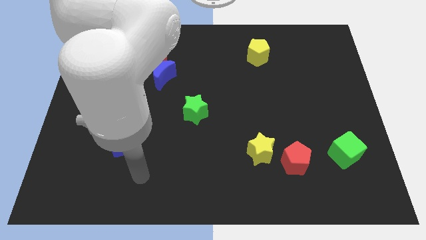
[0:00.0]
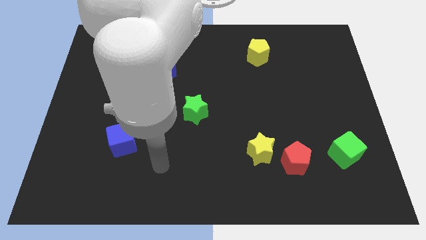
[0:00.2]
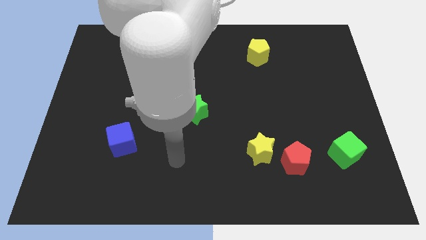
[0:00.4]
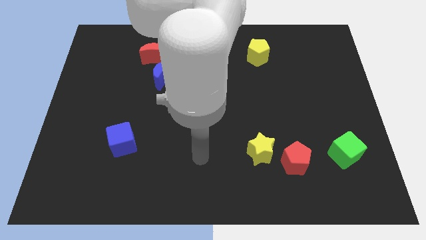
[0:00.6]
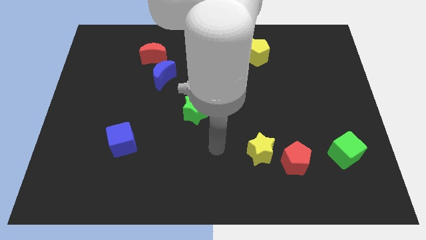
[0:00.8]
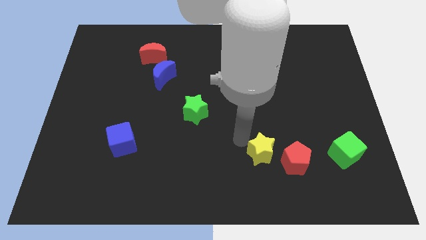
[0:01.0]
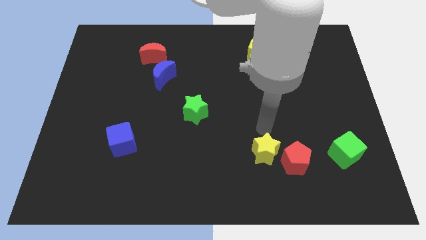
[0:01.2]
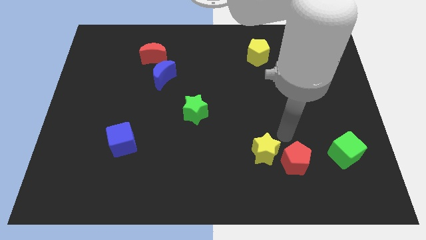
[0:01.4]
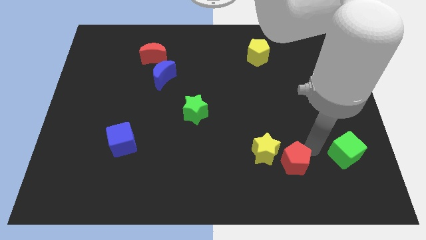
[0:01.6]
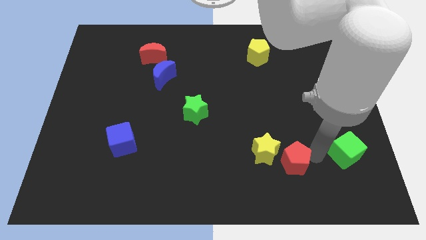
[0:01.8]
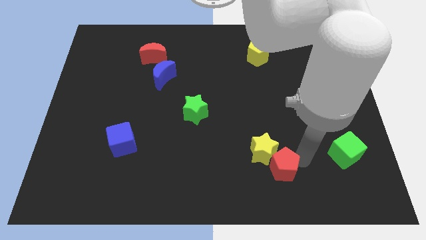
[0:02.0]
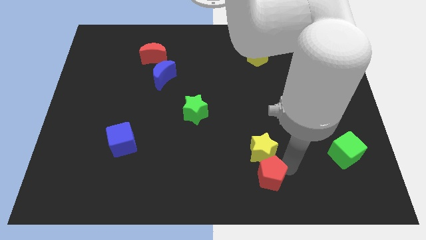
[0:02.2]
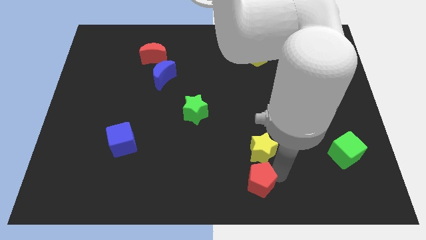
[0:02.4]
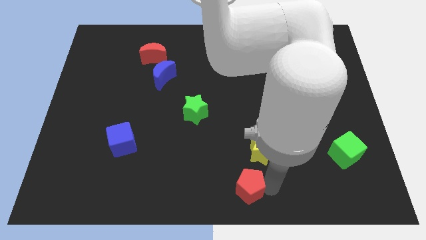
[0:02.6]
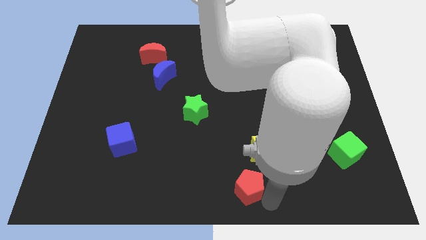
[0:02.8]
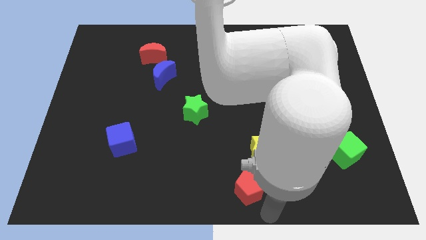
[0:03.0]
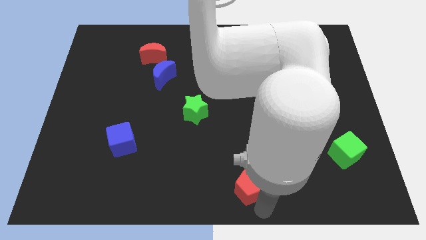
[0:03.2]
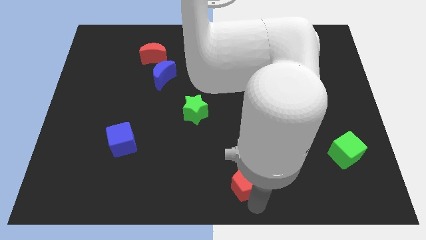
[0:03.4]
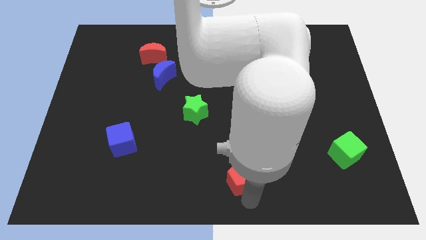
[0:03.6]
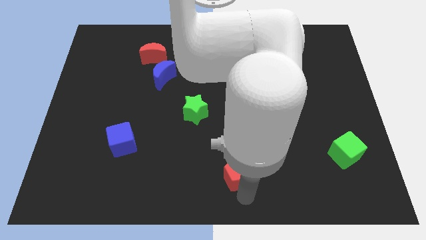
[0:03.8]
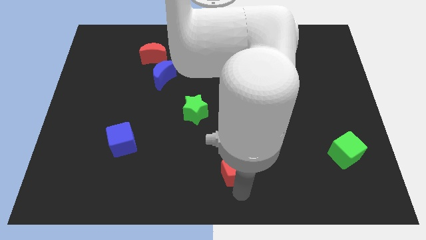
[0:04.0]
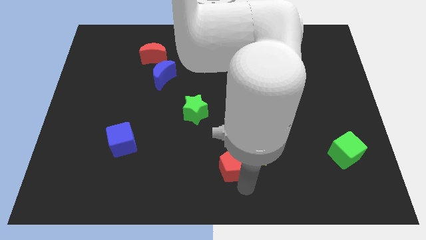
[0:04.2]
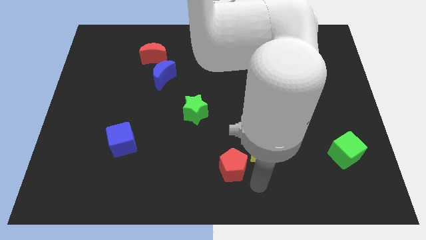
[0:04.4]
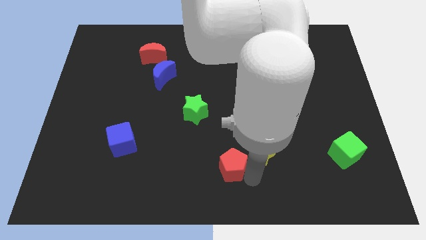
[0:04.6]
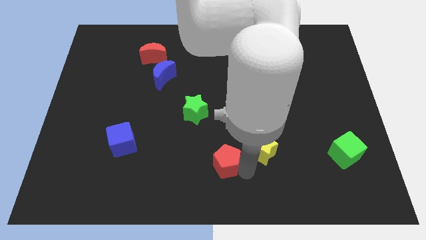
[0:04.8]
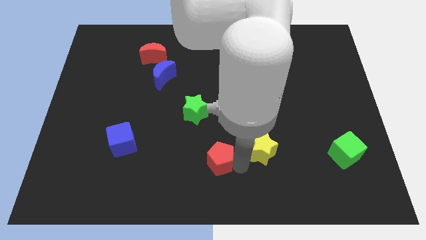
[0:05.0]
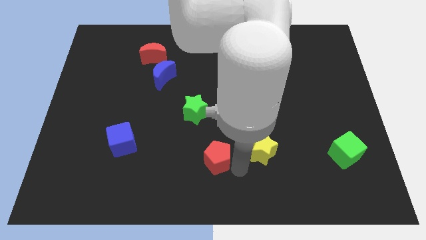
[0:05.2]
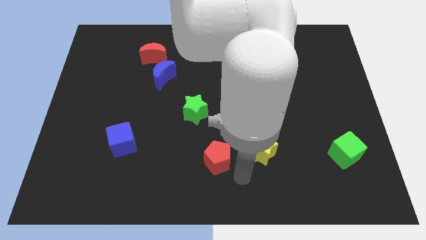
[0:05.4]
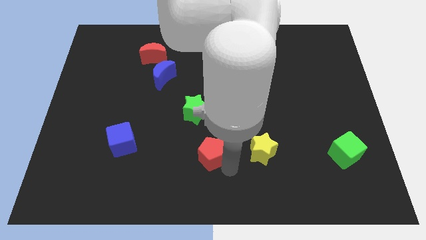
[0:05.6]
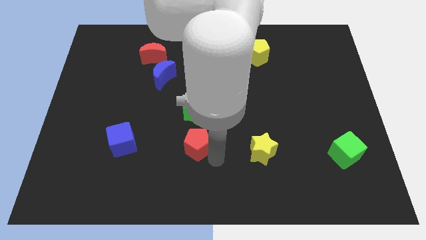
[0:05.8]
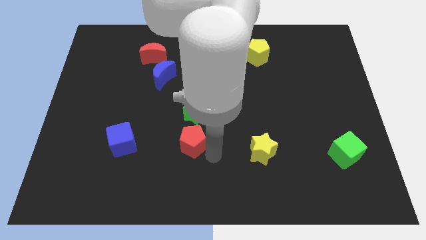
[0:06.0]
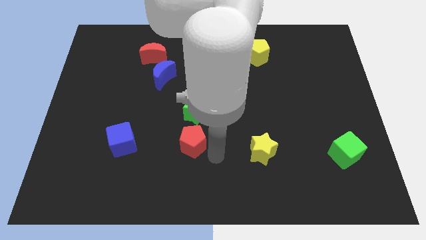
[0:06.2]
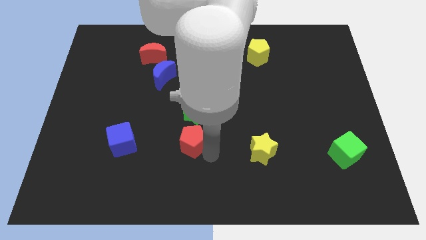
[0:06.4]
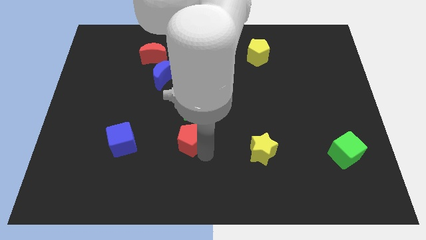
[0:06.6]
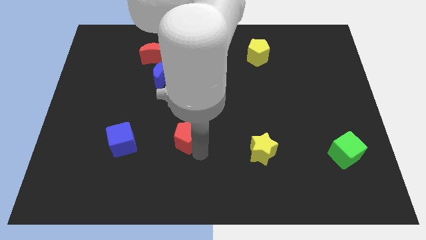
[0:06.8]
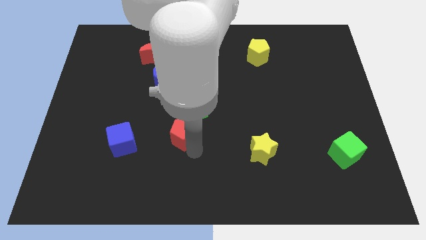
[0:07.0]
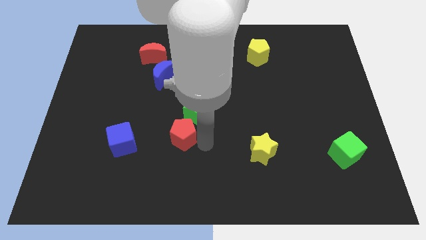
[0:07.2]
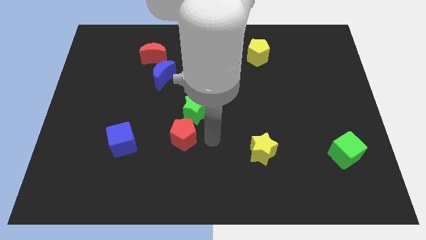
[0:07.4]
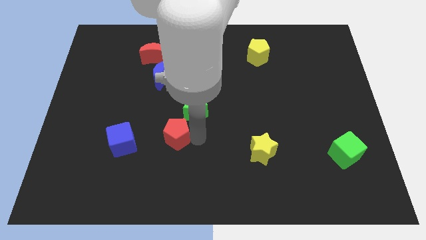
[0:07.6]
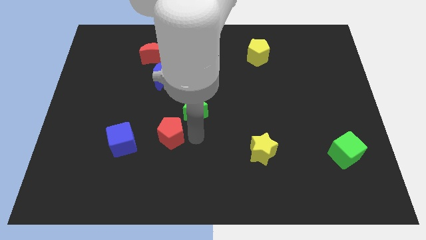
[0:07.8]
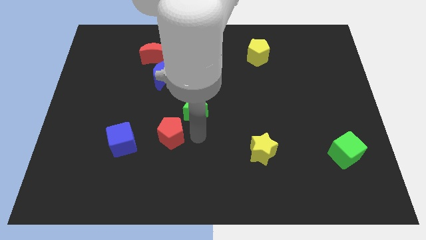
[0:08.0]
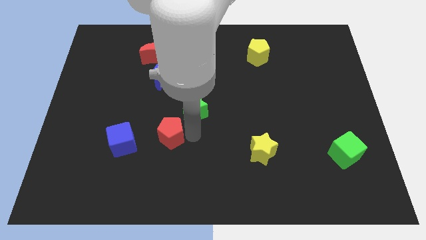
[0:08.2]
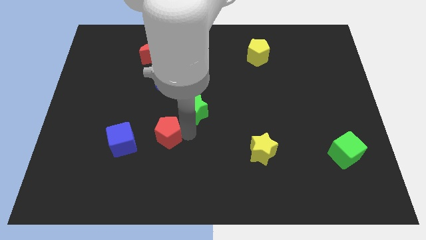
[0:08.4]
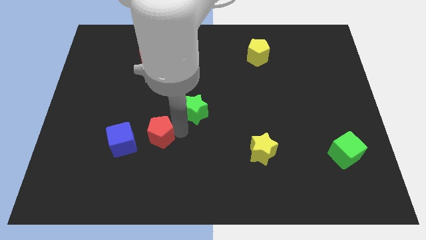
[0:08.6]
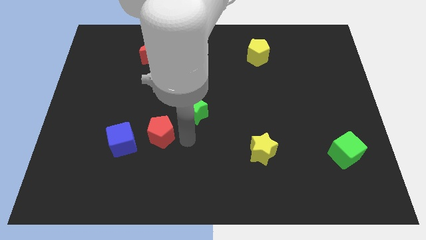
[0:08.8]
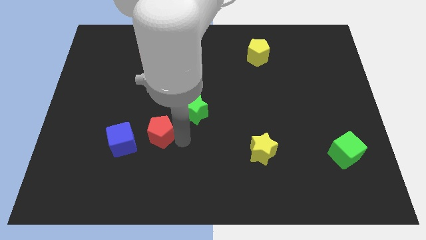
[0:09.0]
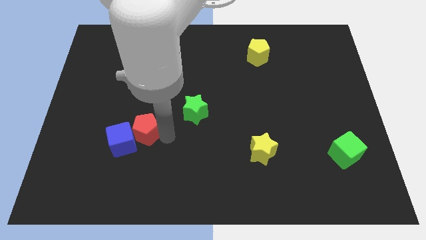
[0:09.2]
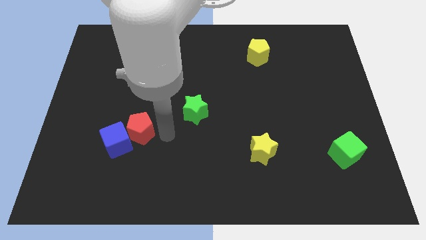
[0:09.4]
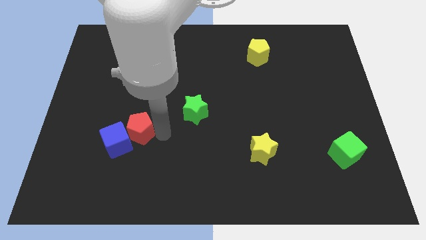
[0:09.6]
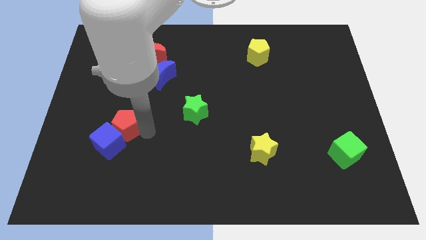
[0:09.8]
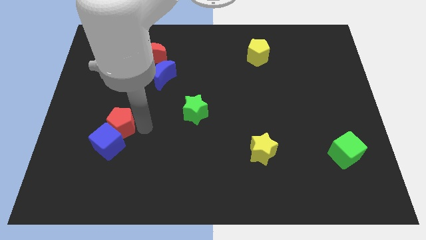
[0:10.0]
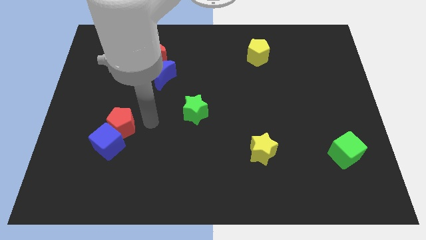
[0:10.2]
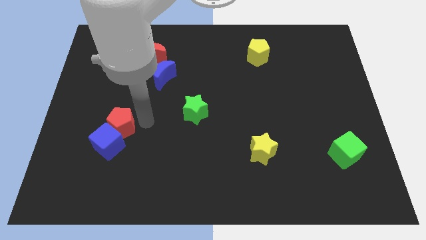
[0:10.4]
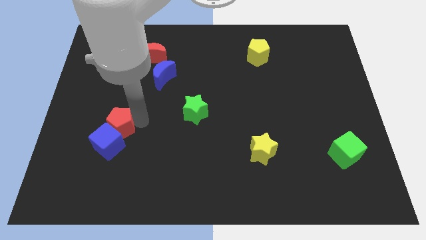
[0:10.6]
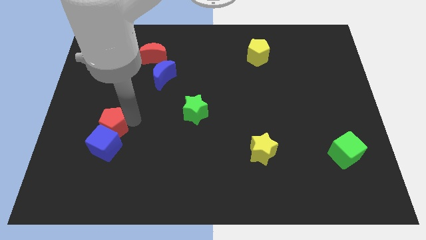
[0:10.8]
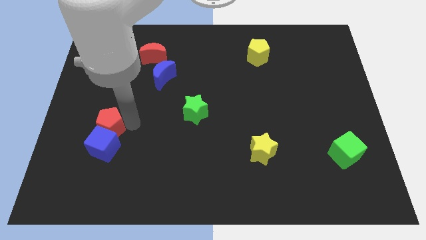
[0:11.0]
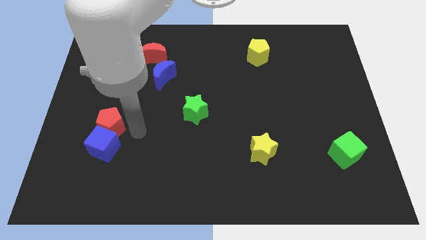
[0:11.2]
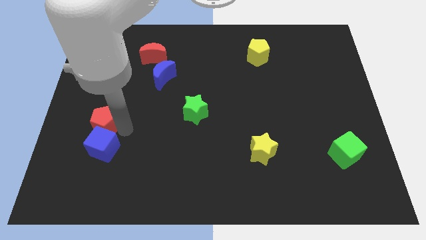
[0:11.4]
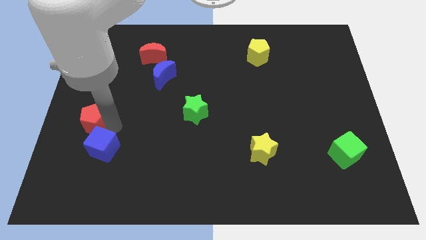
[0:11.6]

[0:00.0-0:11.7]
put the red pentagon to the left side
